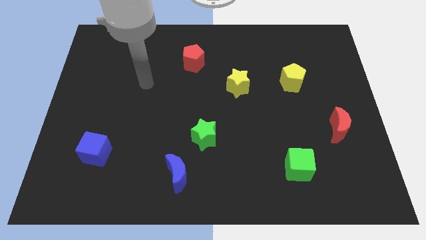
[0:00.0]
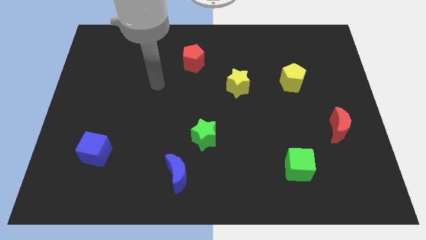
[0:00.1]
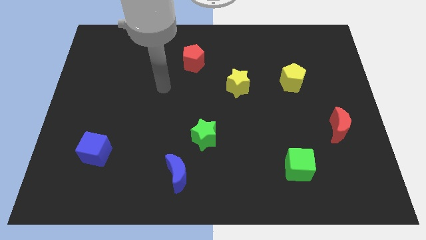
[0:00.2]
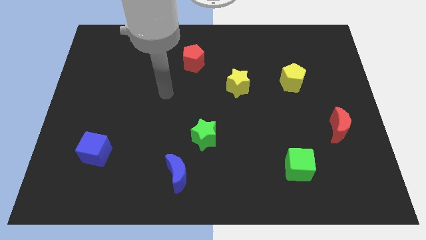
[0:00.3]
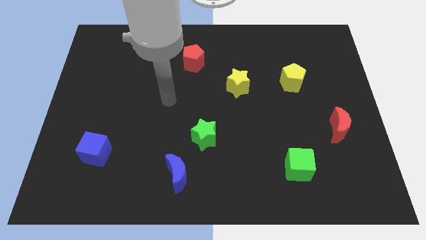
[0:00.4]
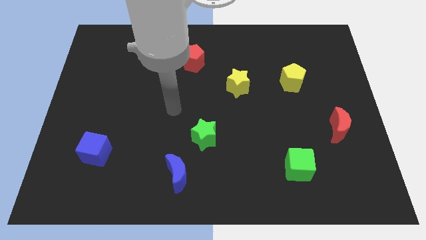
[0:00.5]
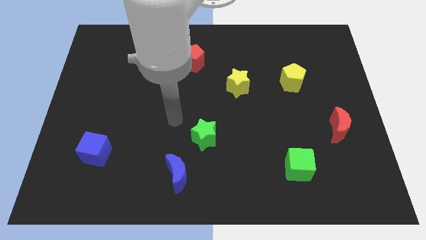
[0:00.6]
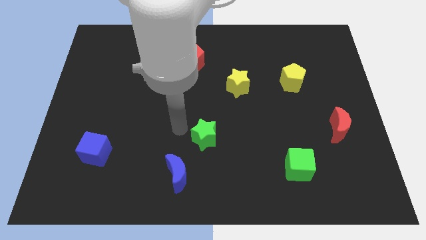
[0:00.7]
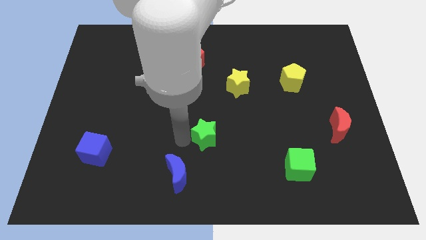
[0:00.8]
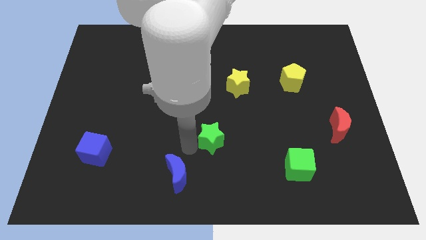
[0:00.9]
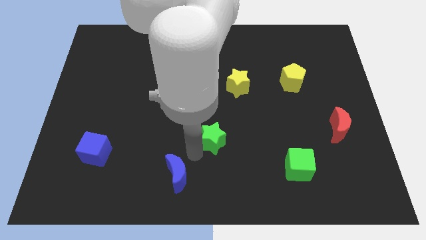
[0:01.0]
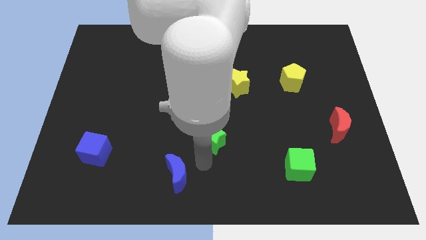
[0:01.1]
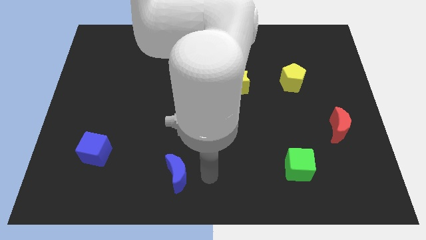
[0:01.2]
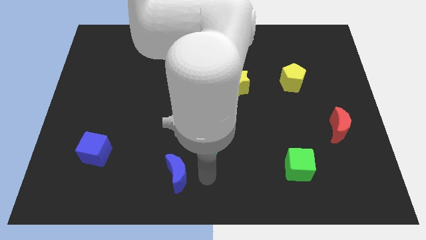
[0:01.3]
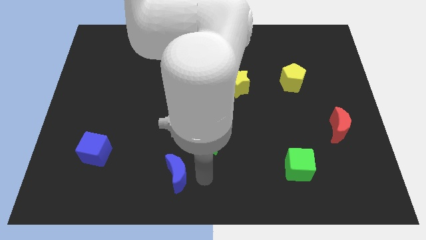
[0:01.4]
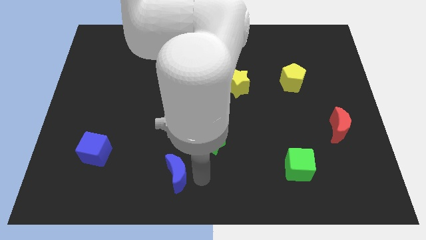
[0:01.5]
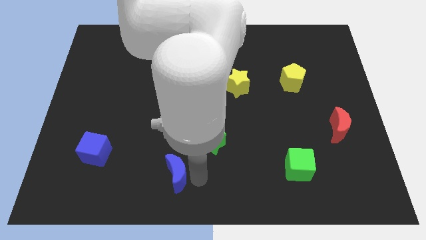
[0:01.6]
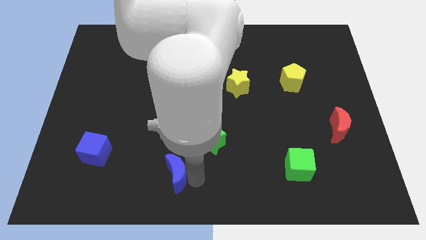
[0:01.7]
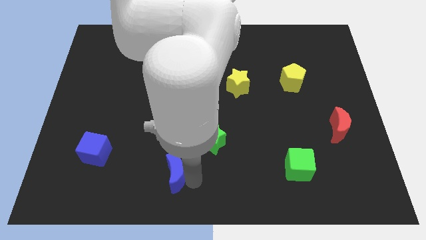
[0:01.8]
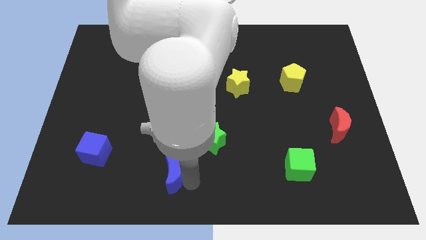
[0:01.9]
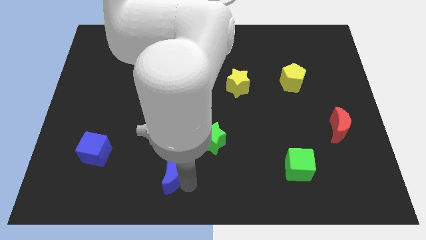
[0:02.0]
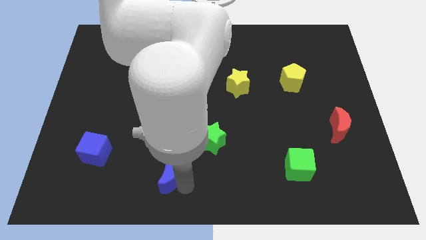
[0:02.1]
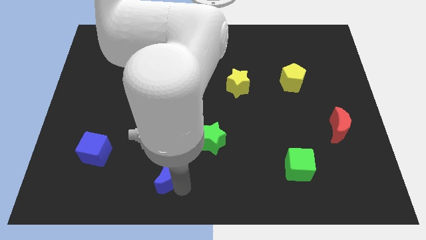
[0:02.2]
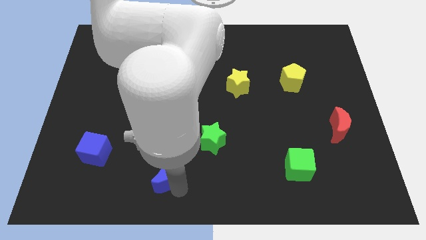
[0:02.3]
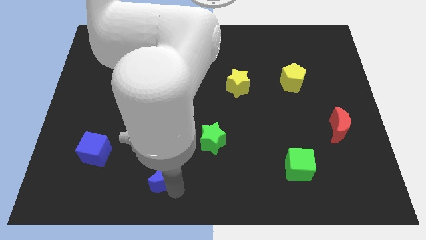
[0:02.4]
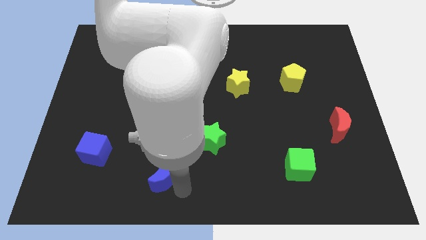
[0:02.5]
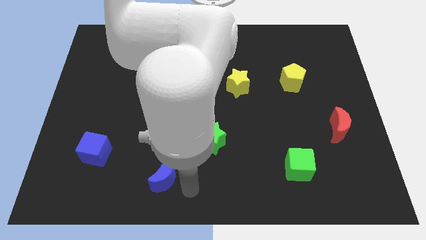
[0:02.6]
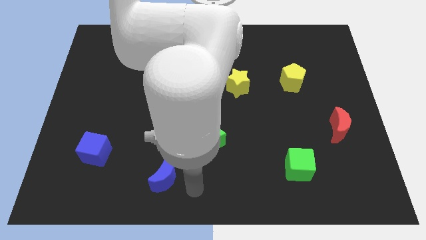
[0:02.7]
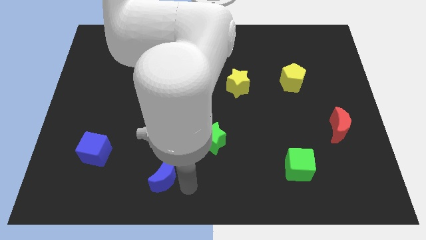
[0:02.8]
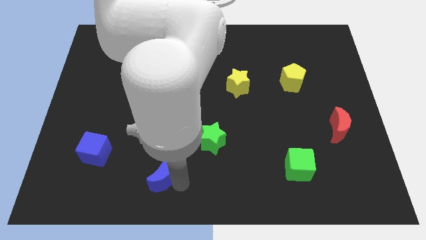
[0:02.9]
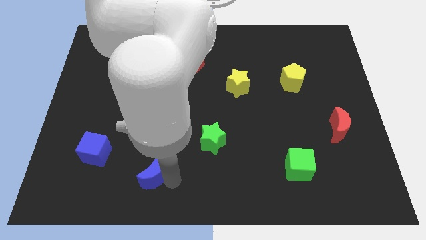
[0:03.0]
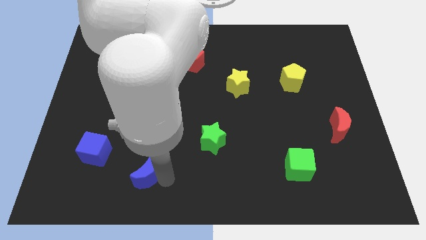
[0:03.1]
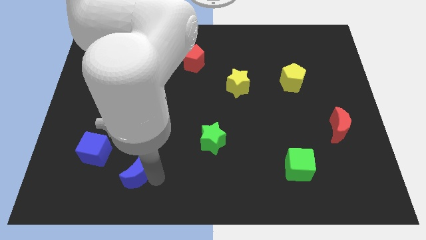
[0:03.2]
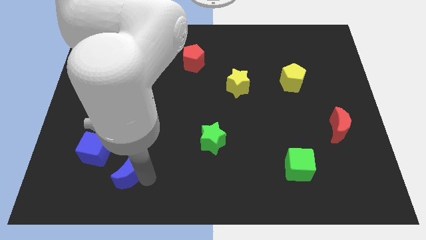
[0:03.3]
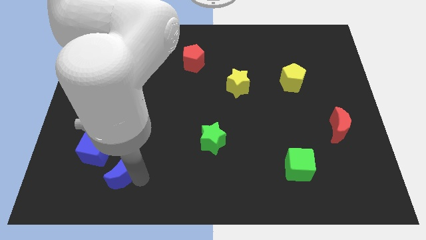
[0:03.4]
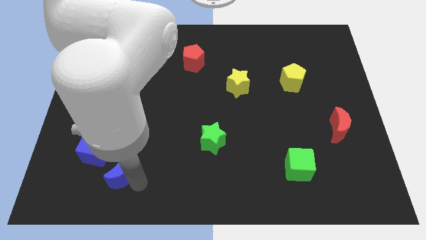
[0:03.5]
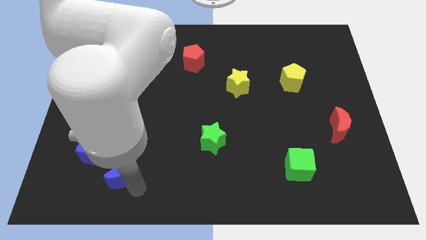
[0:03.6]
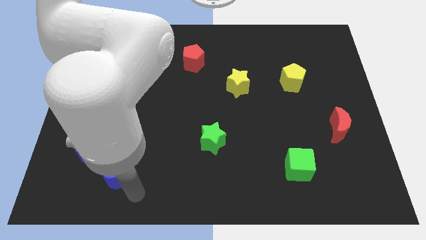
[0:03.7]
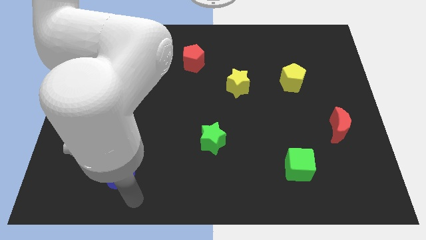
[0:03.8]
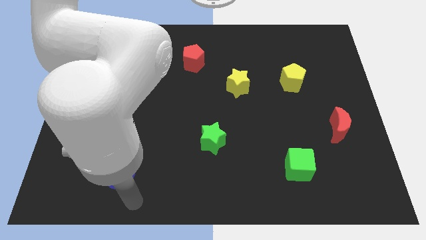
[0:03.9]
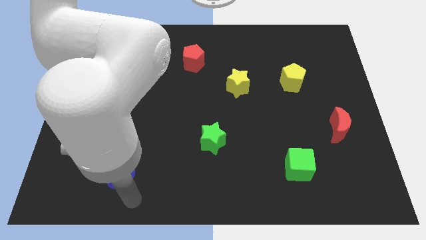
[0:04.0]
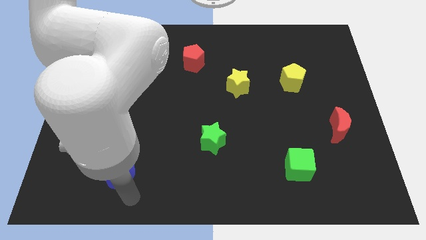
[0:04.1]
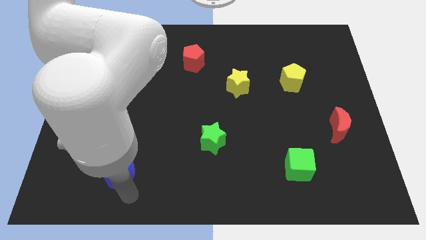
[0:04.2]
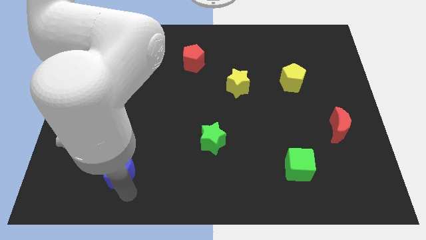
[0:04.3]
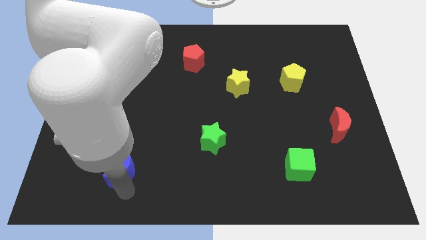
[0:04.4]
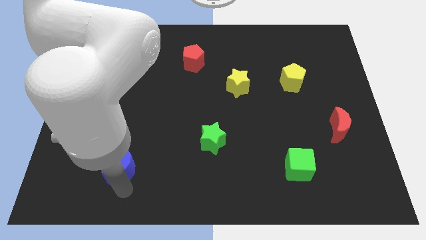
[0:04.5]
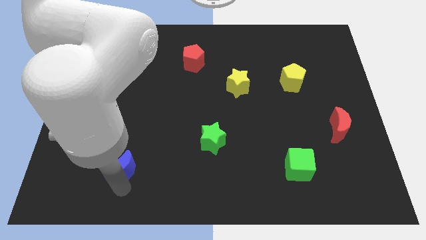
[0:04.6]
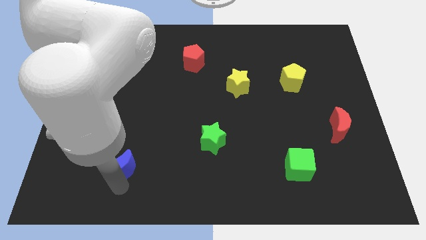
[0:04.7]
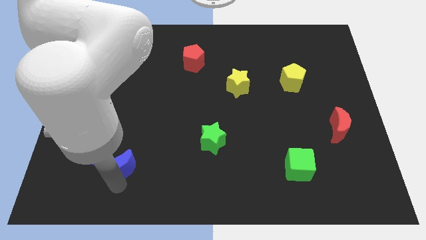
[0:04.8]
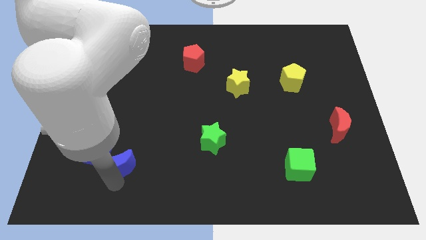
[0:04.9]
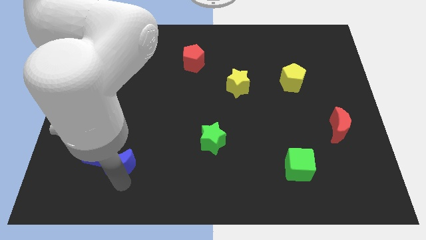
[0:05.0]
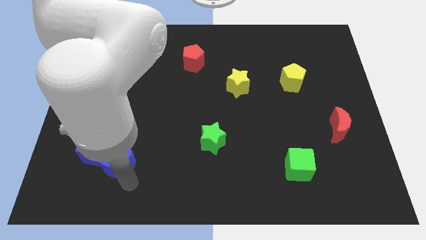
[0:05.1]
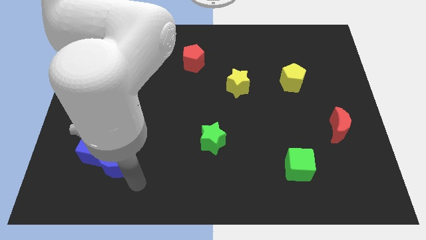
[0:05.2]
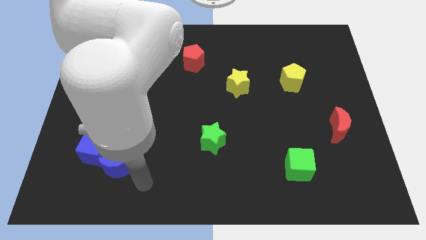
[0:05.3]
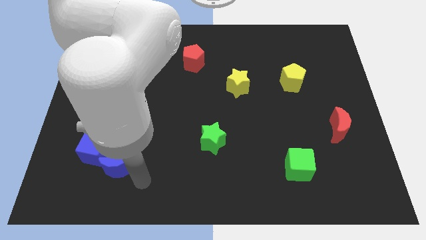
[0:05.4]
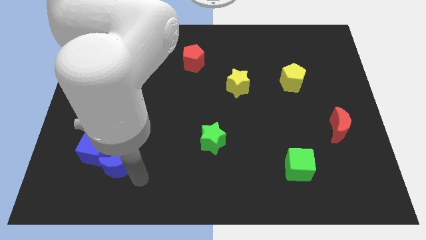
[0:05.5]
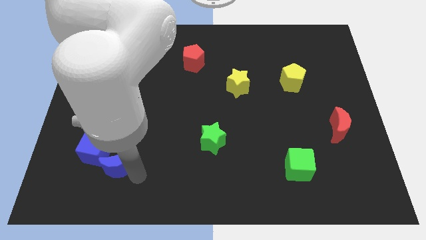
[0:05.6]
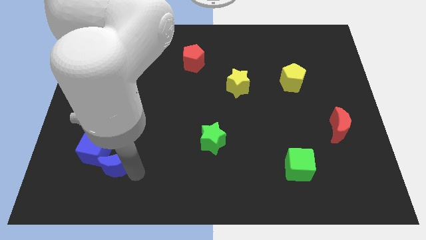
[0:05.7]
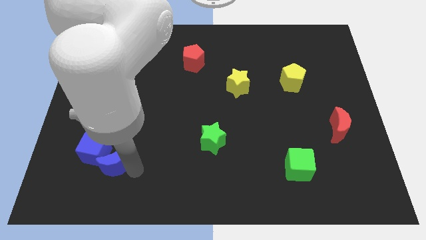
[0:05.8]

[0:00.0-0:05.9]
slide the blue moon to the blue cube

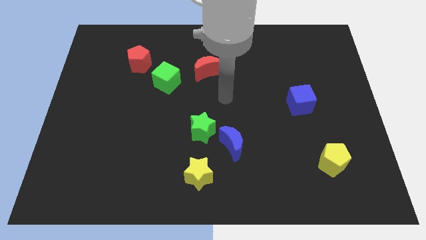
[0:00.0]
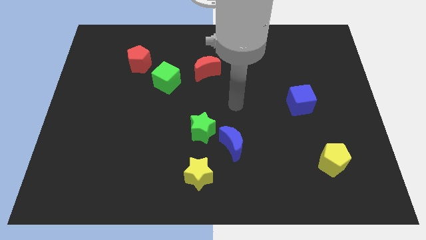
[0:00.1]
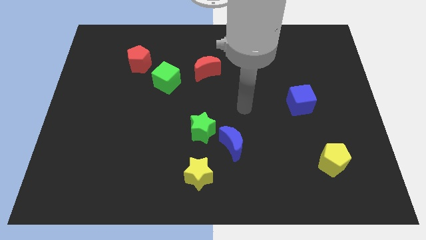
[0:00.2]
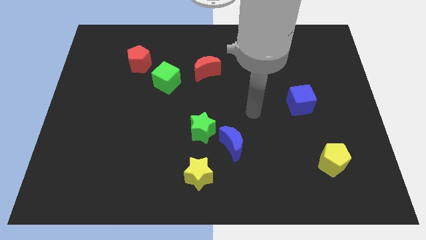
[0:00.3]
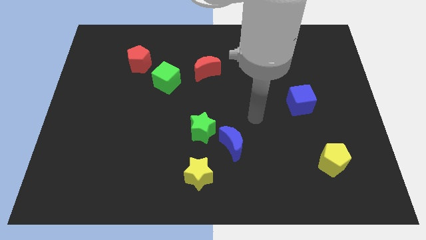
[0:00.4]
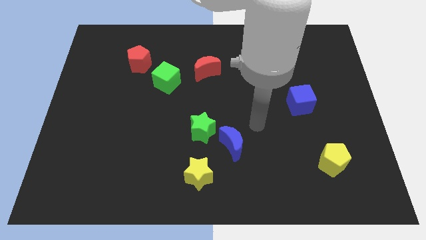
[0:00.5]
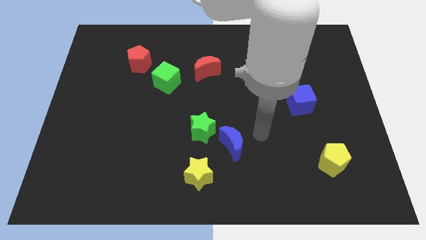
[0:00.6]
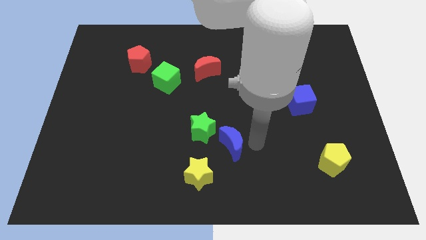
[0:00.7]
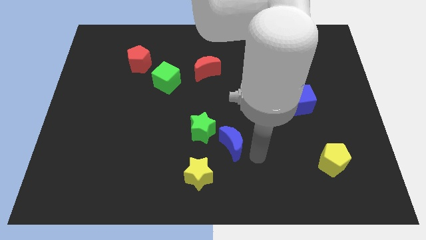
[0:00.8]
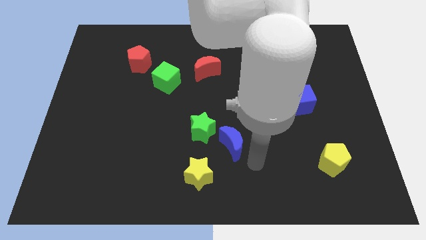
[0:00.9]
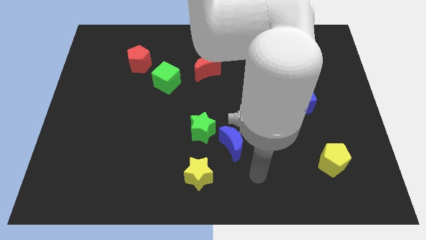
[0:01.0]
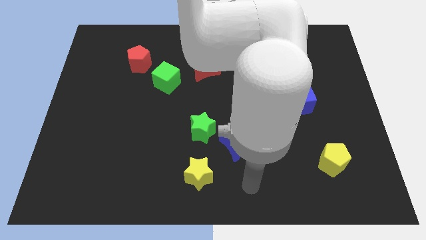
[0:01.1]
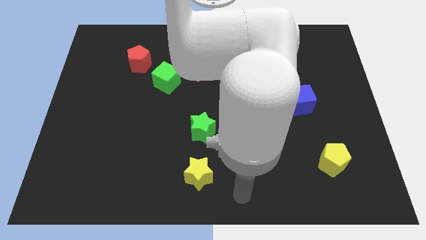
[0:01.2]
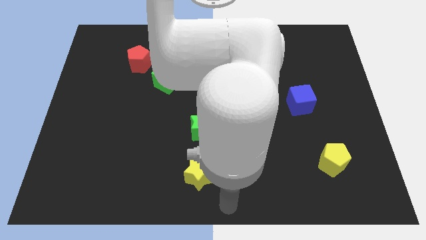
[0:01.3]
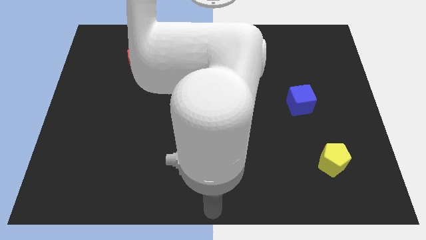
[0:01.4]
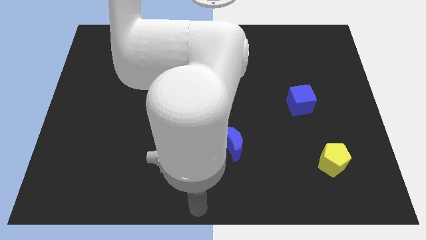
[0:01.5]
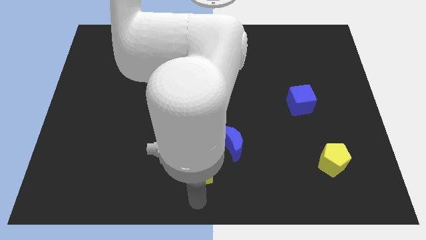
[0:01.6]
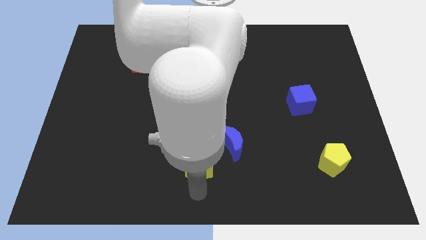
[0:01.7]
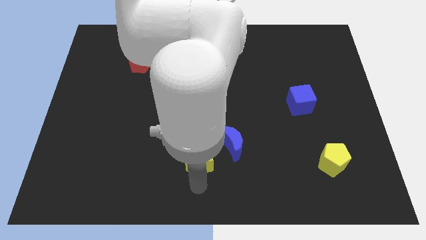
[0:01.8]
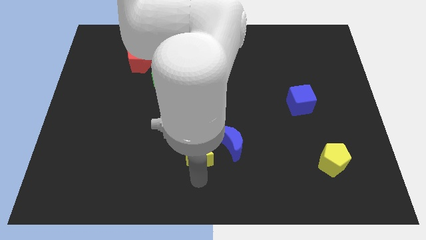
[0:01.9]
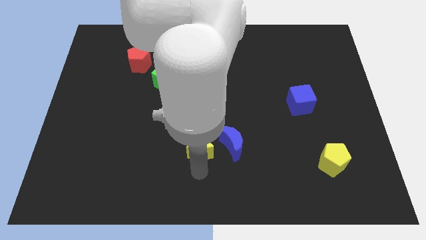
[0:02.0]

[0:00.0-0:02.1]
slide the yellow star towards the green star

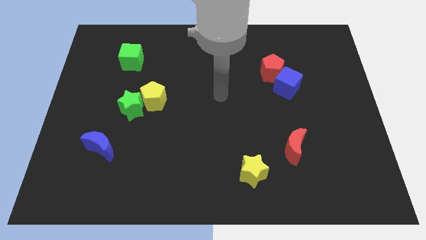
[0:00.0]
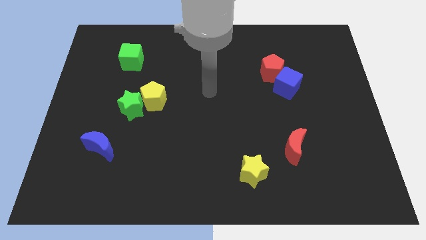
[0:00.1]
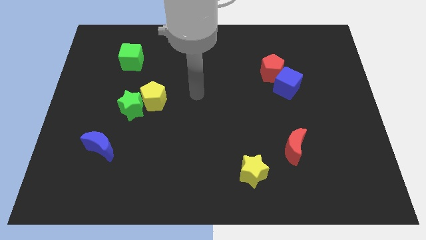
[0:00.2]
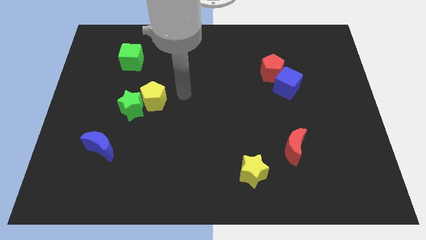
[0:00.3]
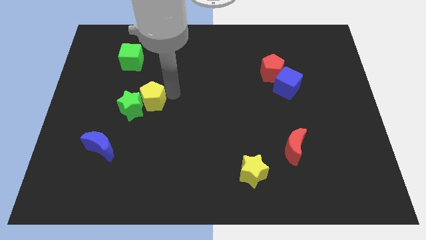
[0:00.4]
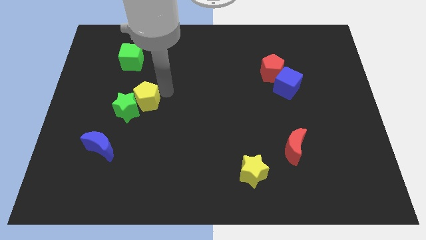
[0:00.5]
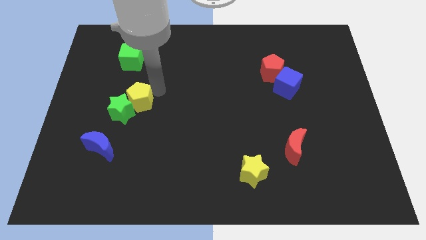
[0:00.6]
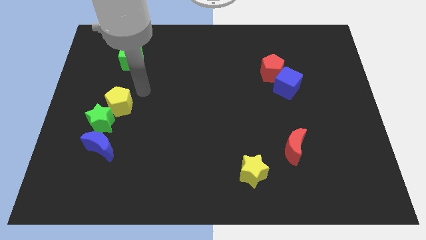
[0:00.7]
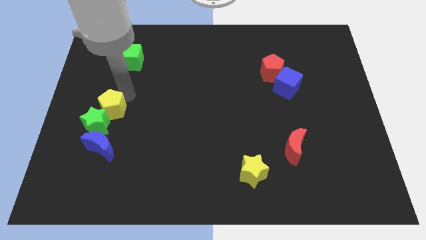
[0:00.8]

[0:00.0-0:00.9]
push the green star next to the blue moon
